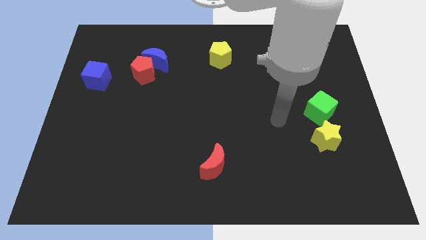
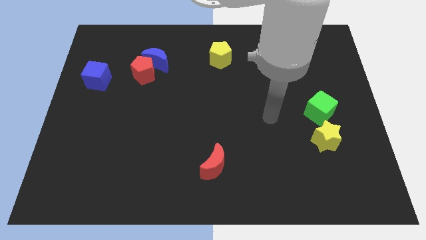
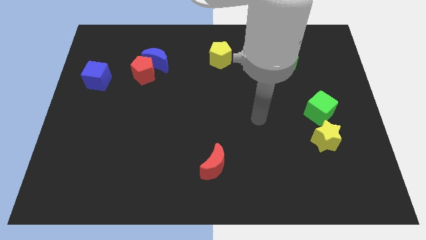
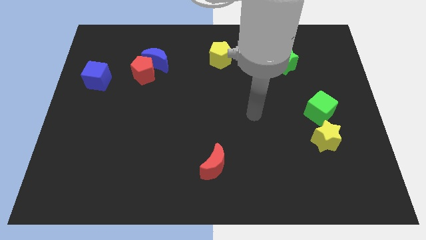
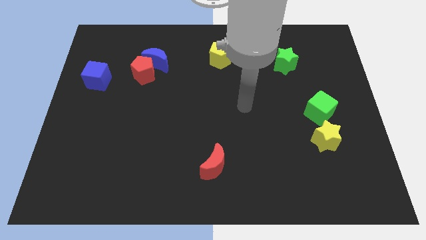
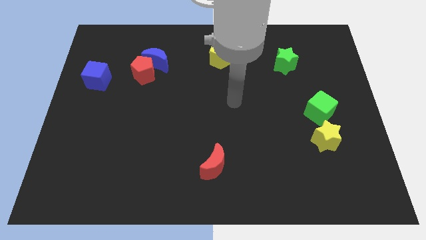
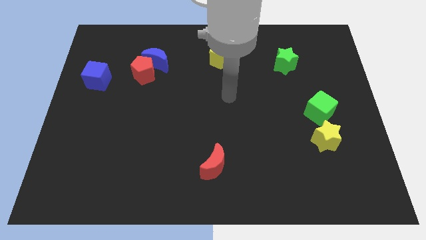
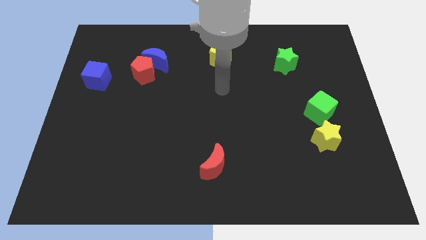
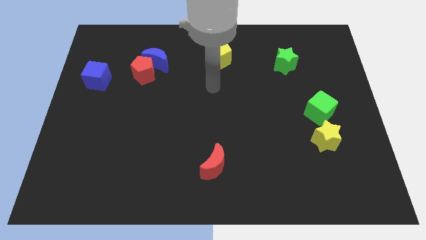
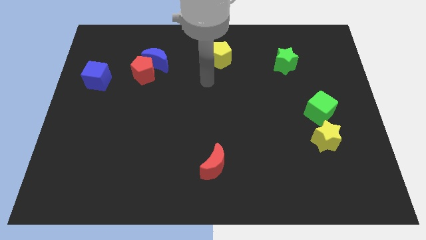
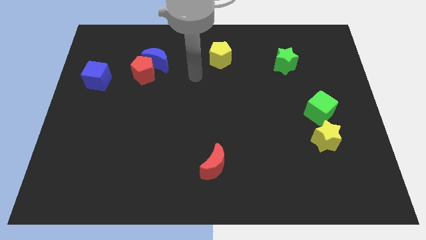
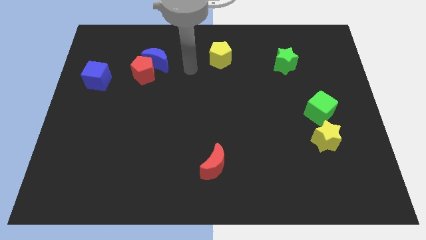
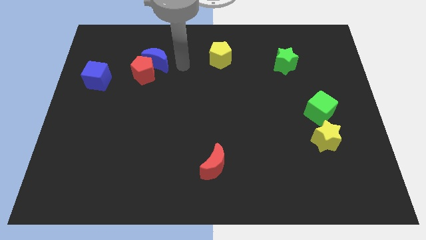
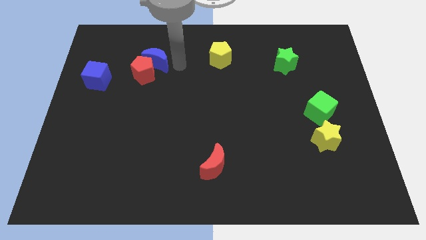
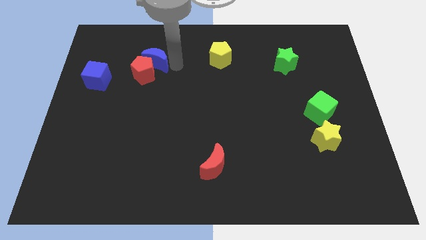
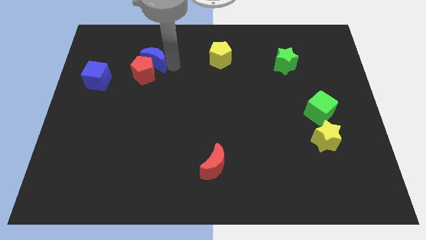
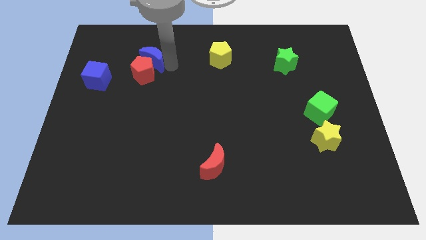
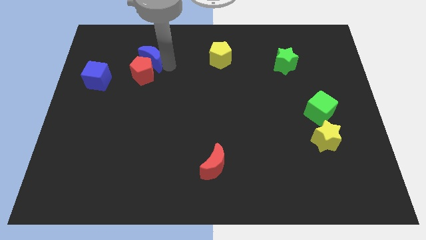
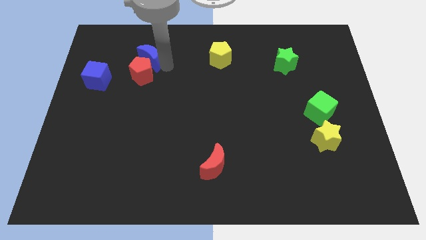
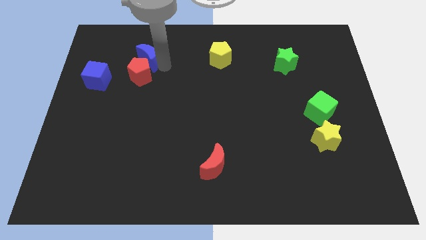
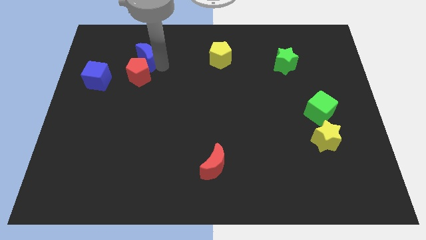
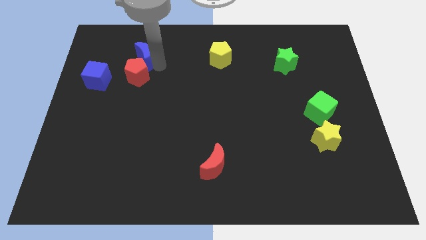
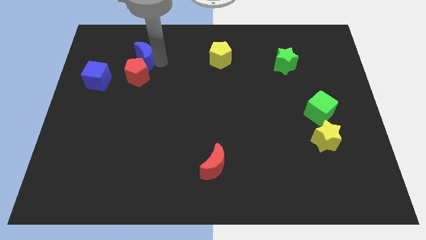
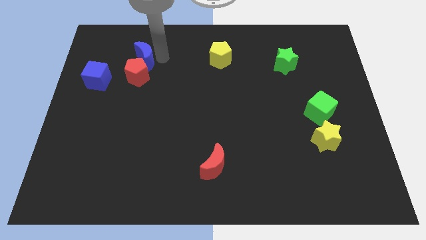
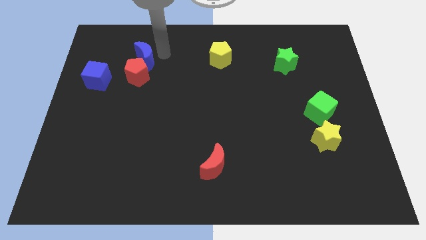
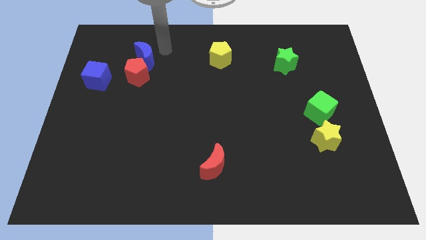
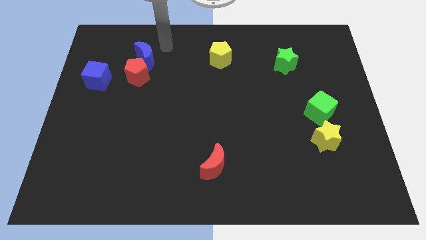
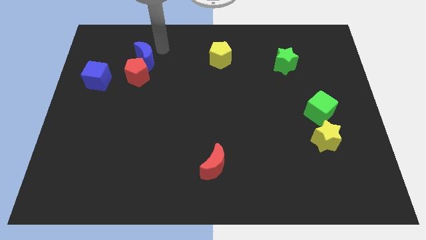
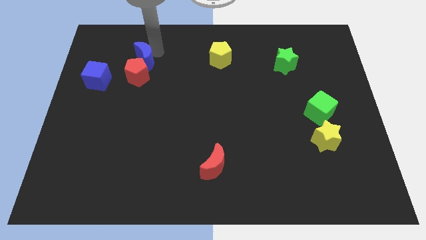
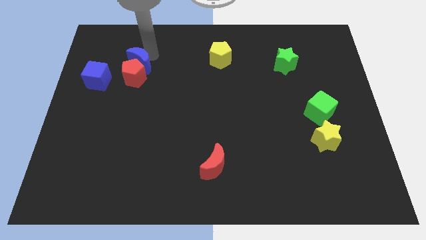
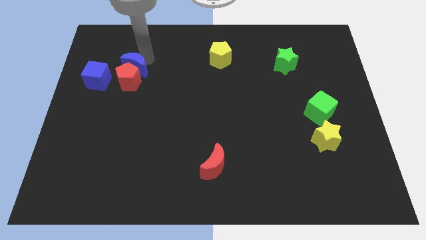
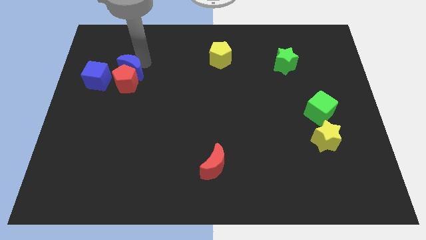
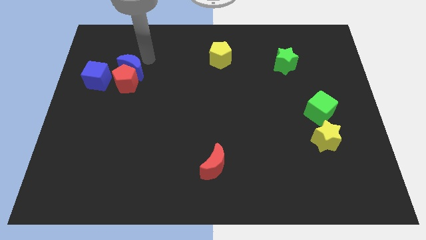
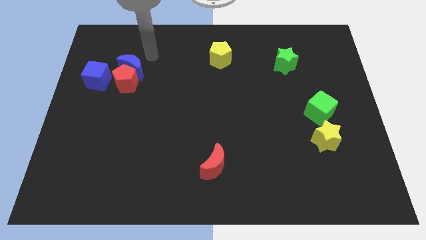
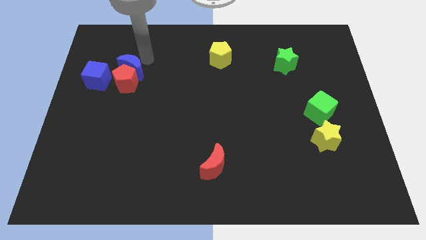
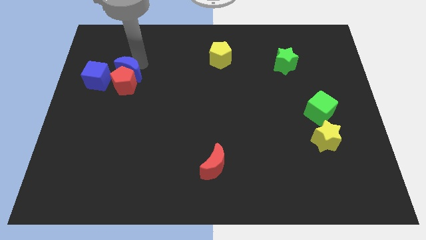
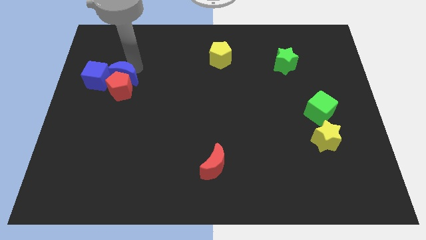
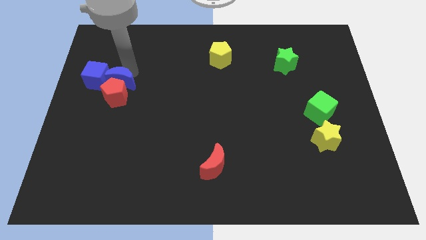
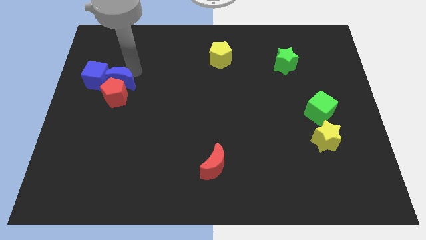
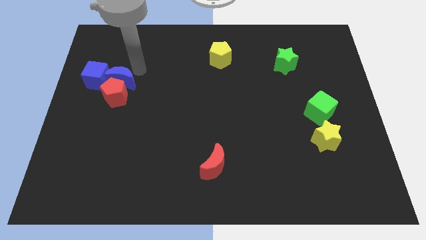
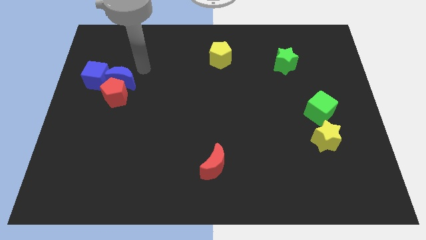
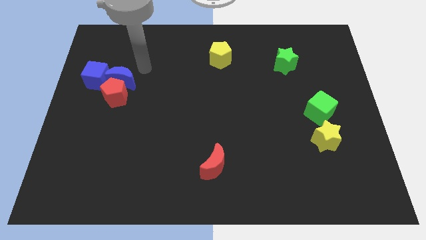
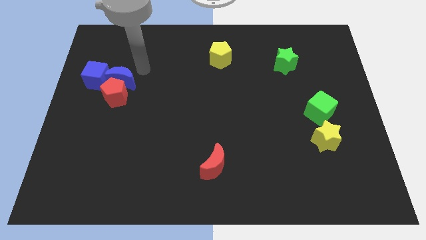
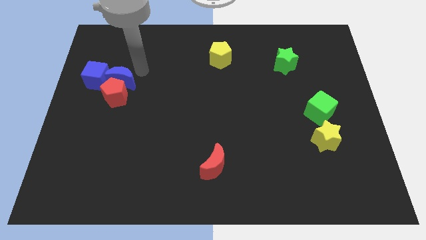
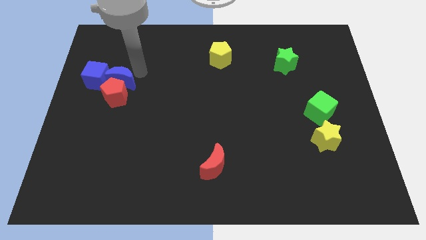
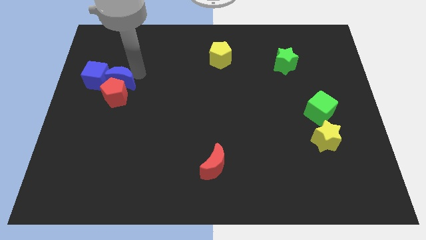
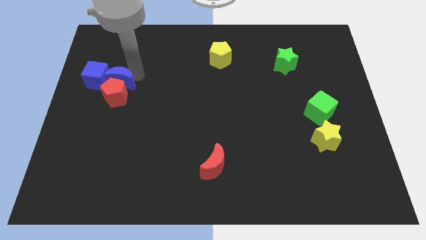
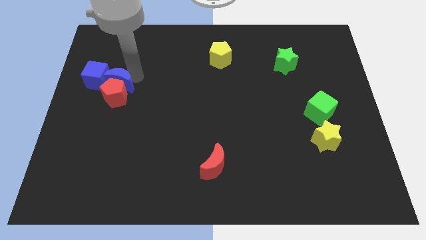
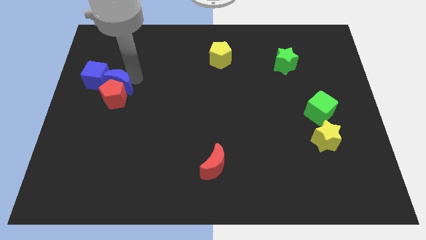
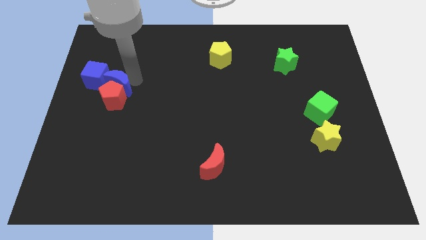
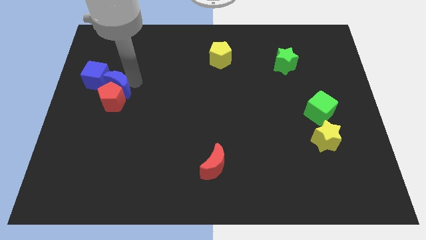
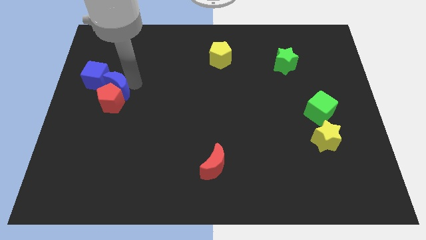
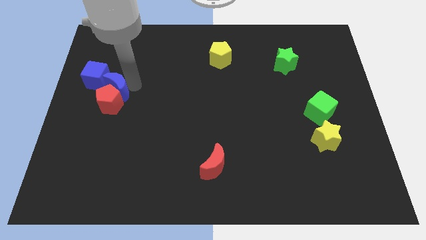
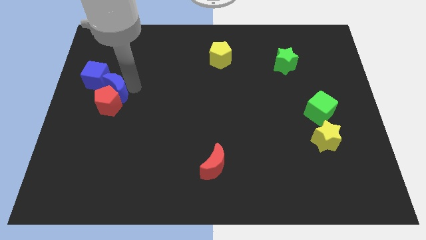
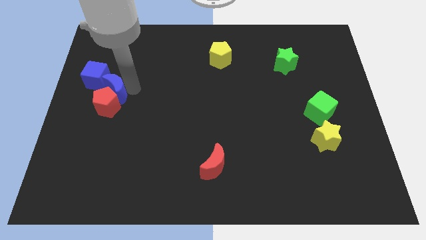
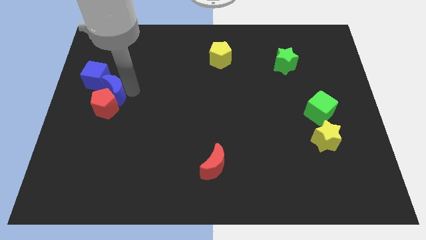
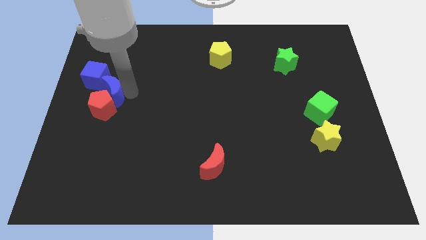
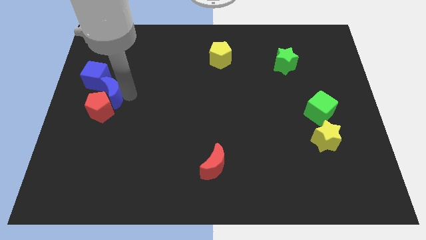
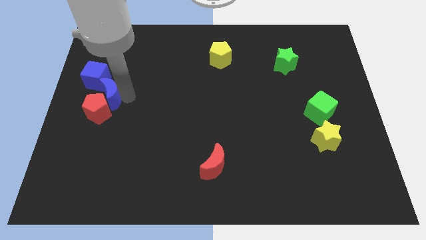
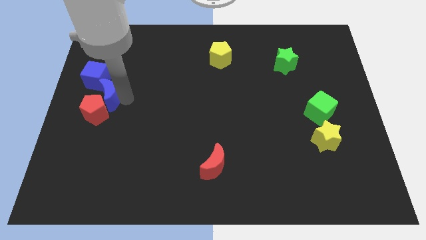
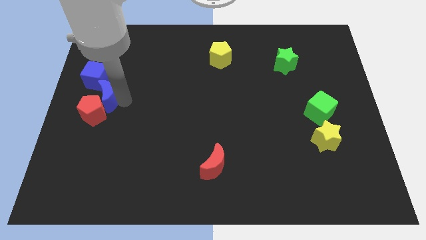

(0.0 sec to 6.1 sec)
put the blue moon to the center left
